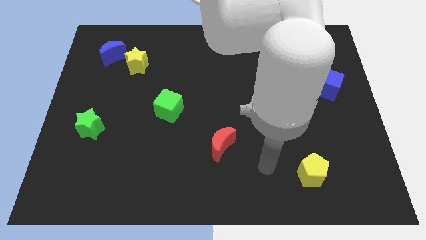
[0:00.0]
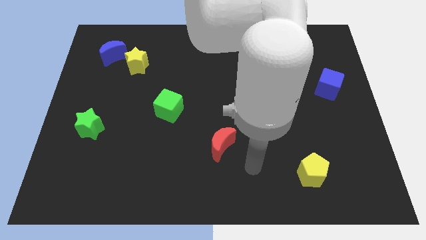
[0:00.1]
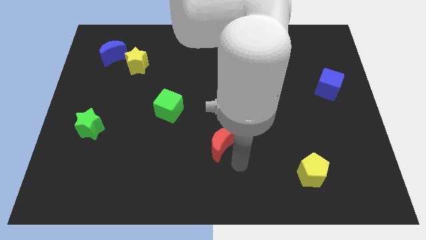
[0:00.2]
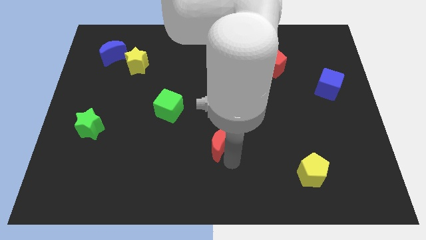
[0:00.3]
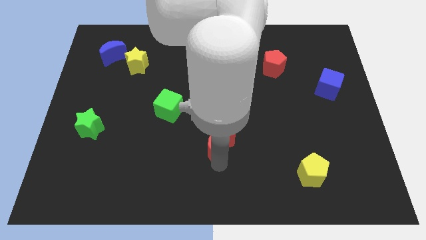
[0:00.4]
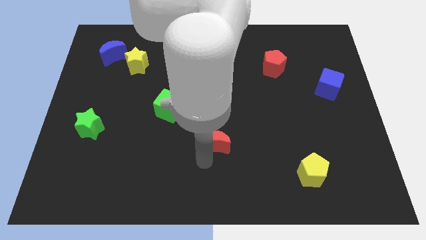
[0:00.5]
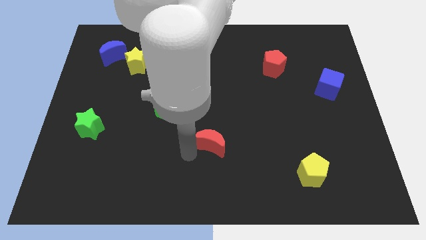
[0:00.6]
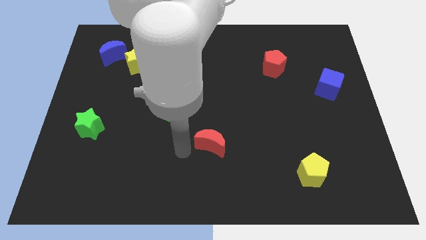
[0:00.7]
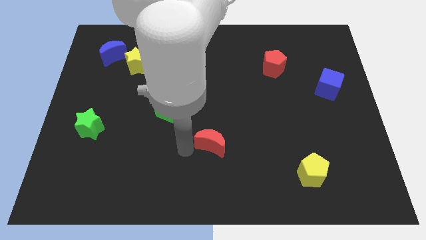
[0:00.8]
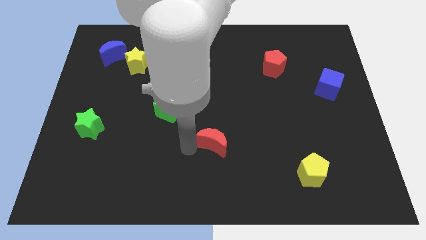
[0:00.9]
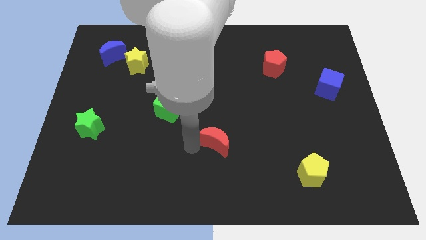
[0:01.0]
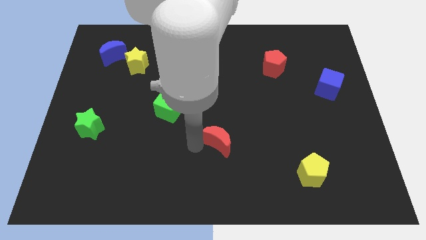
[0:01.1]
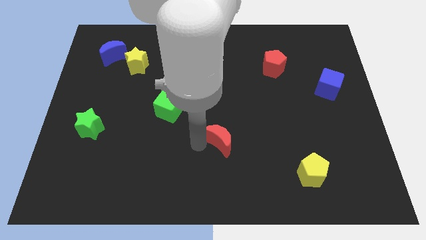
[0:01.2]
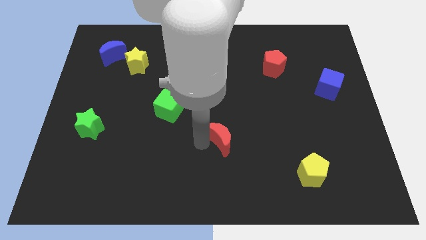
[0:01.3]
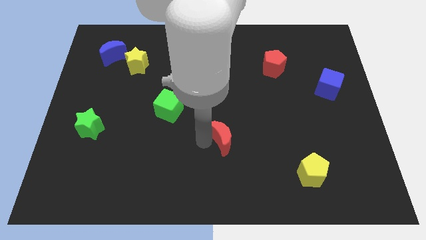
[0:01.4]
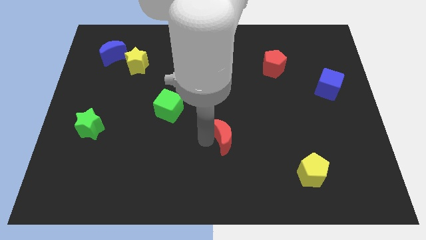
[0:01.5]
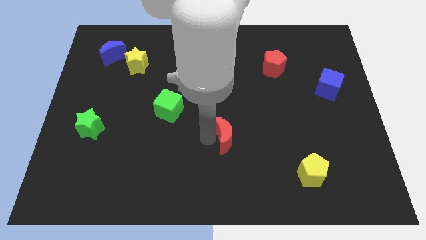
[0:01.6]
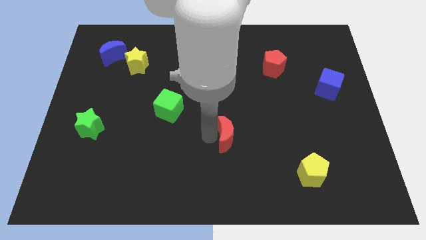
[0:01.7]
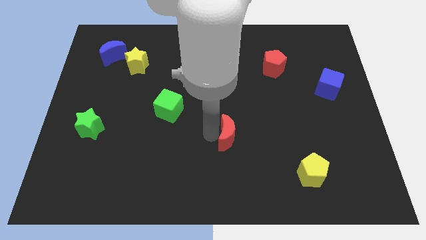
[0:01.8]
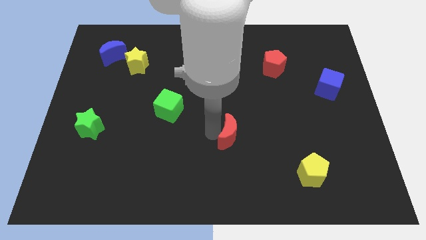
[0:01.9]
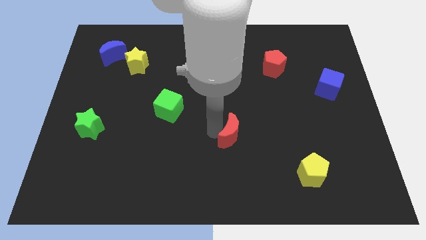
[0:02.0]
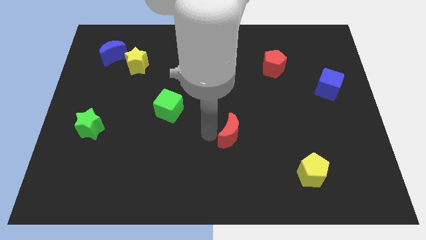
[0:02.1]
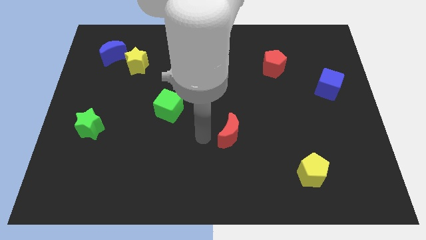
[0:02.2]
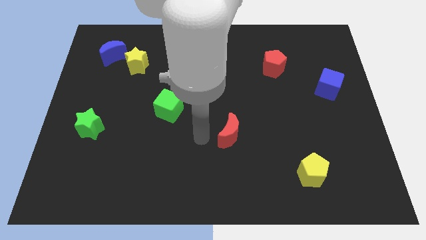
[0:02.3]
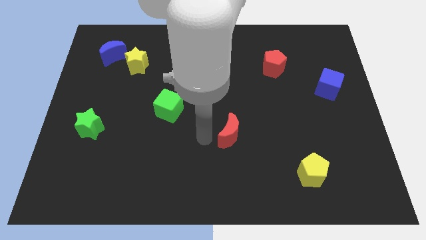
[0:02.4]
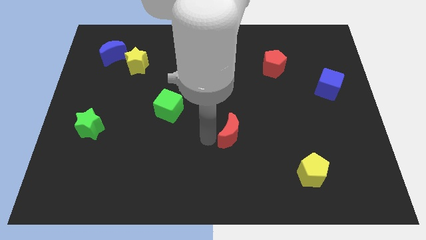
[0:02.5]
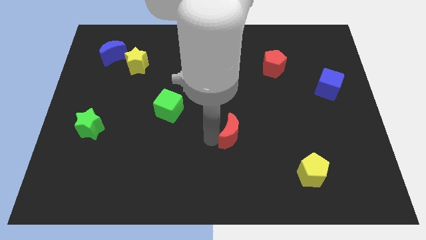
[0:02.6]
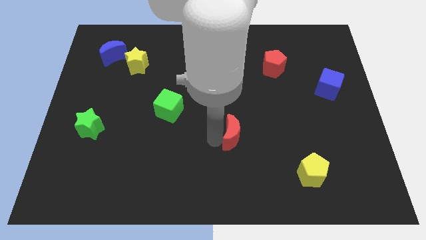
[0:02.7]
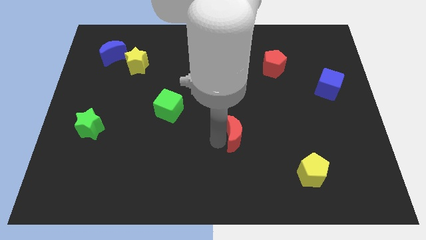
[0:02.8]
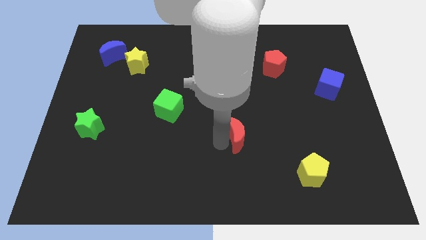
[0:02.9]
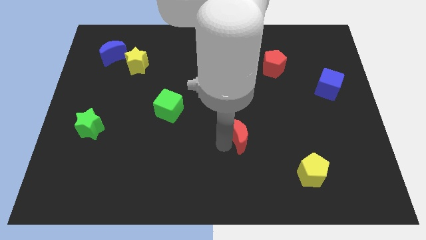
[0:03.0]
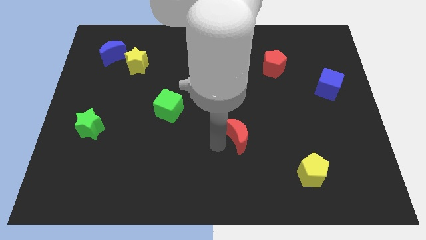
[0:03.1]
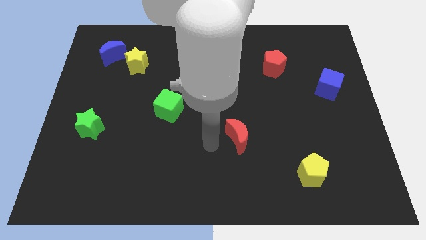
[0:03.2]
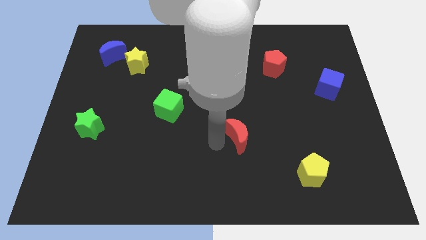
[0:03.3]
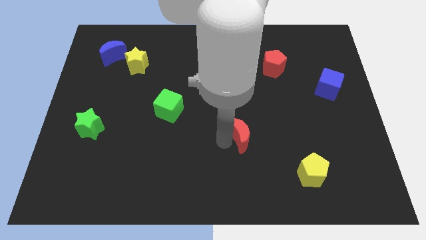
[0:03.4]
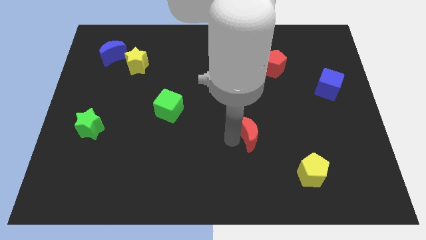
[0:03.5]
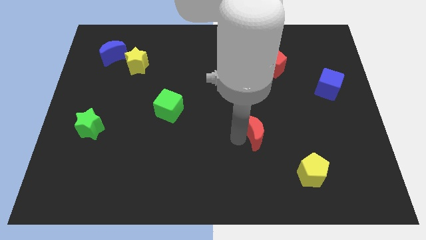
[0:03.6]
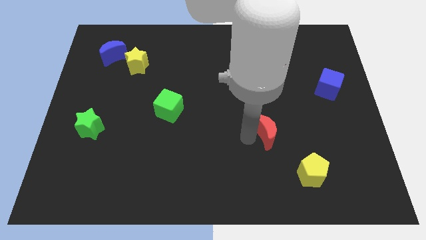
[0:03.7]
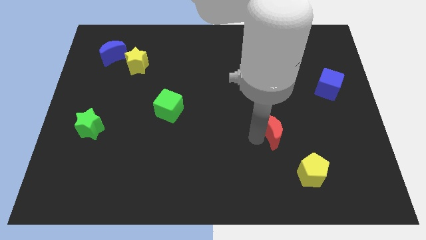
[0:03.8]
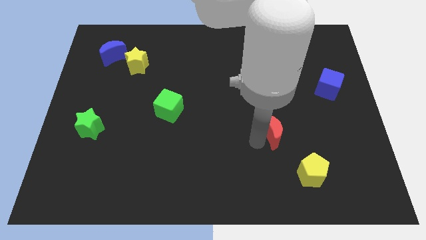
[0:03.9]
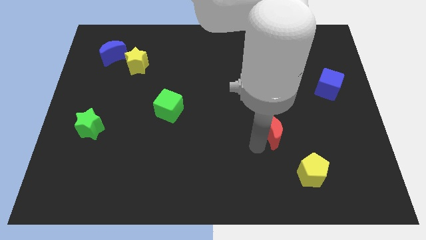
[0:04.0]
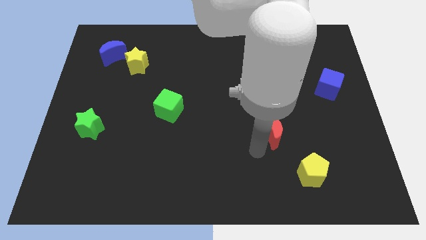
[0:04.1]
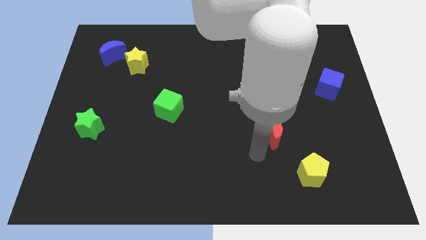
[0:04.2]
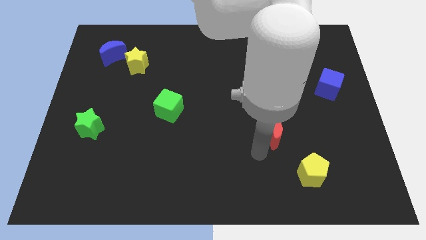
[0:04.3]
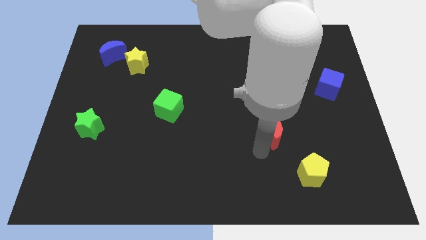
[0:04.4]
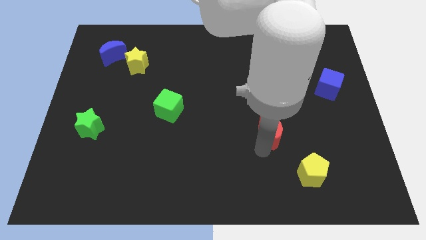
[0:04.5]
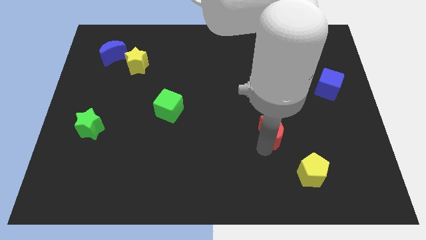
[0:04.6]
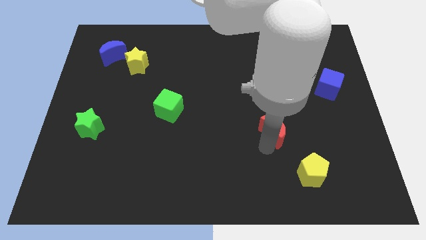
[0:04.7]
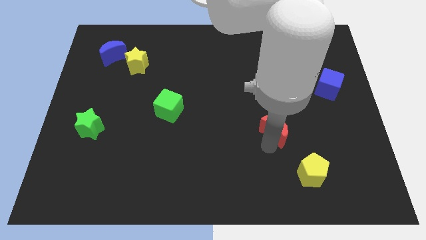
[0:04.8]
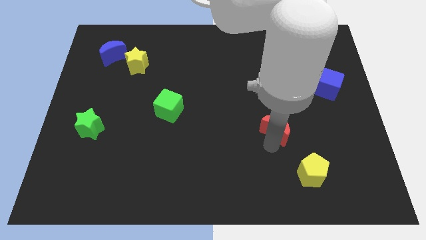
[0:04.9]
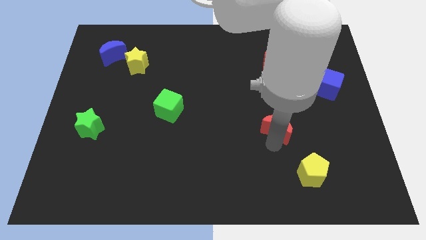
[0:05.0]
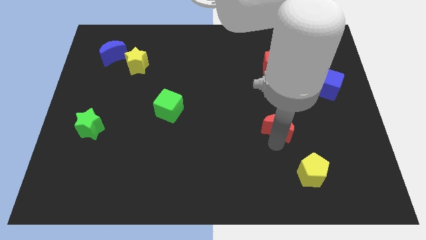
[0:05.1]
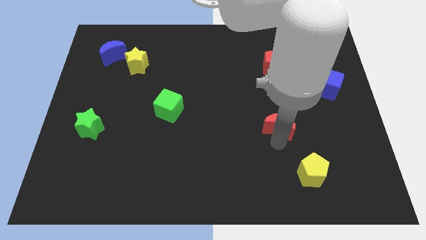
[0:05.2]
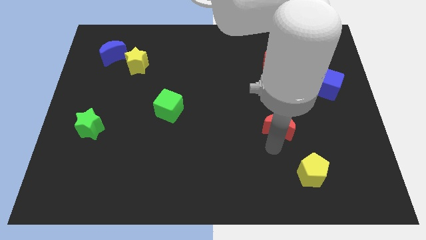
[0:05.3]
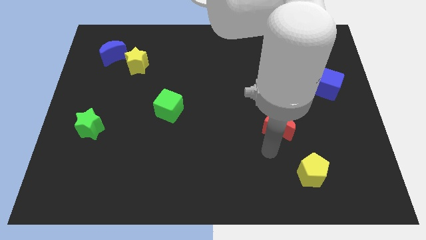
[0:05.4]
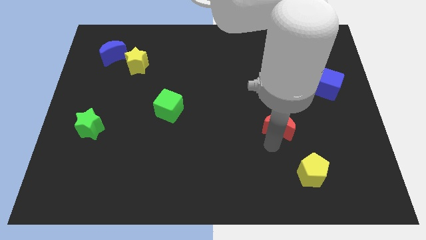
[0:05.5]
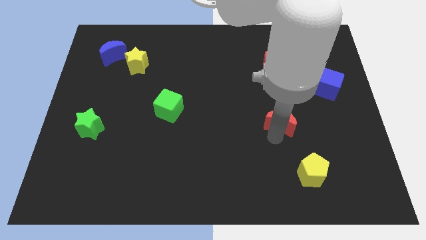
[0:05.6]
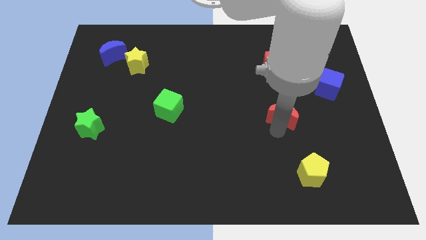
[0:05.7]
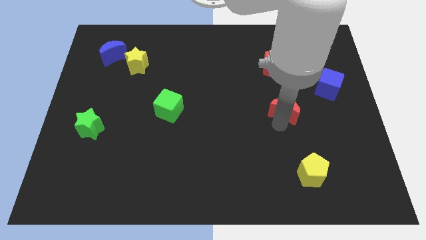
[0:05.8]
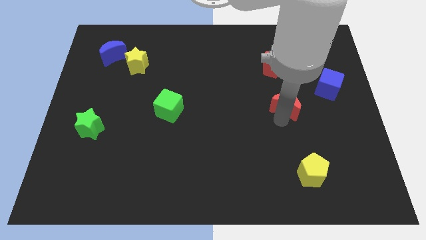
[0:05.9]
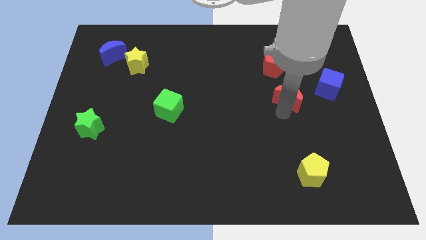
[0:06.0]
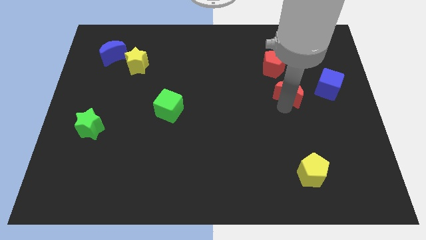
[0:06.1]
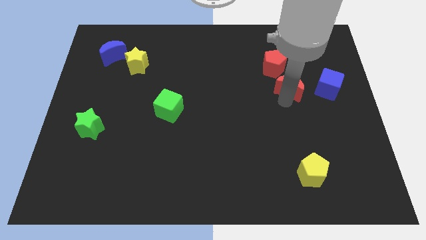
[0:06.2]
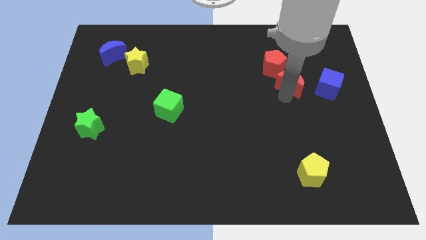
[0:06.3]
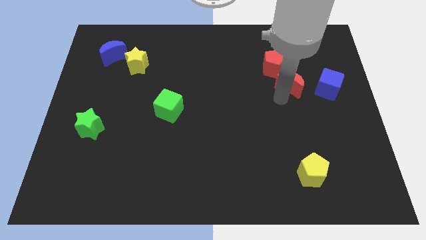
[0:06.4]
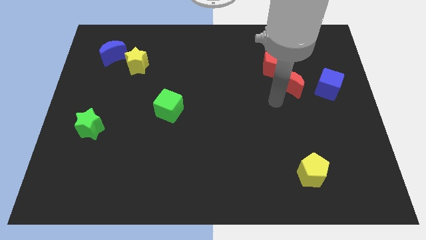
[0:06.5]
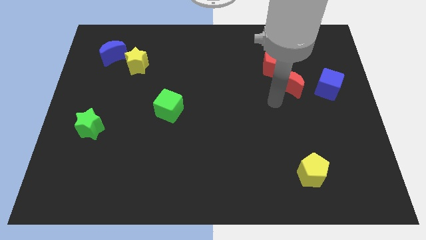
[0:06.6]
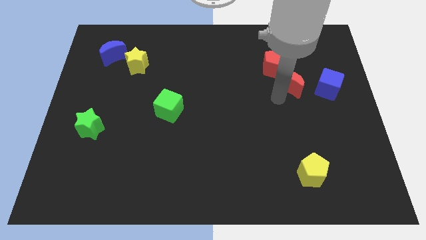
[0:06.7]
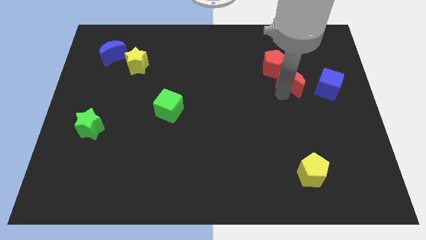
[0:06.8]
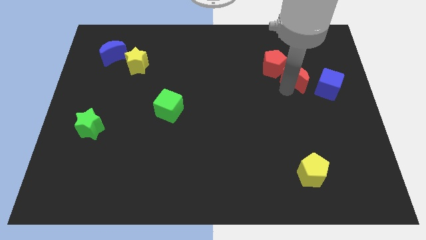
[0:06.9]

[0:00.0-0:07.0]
put the red moon to the top left side of the blue cube
